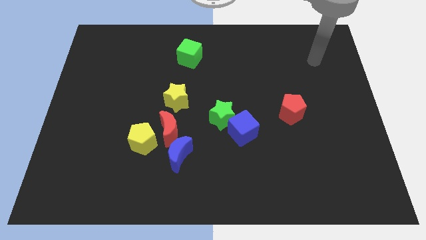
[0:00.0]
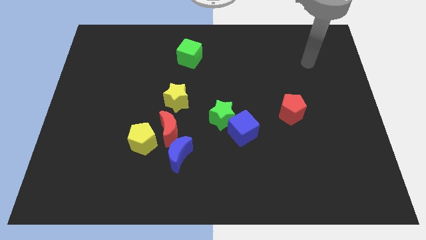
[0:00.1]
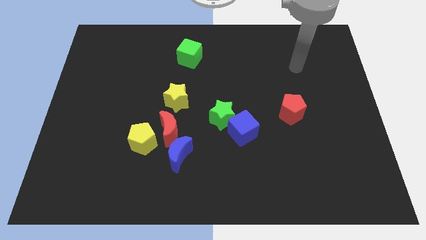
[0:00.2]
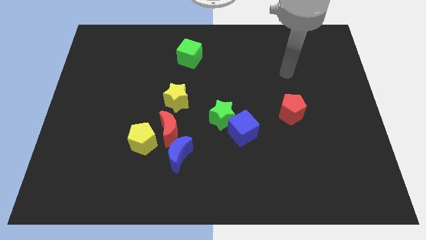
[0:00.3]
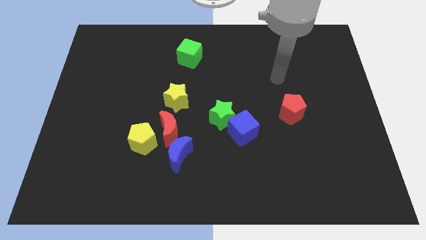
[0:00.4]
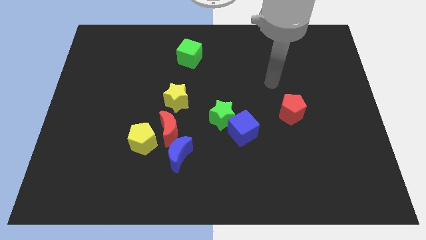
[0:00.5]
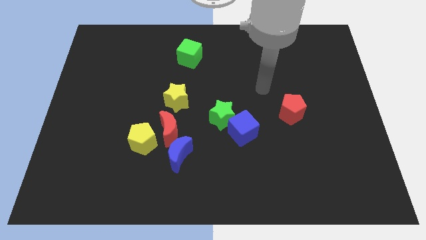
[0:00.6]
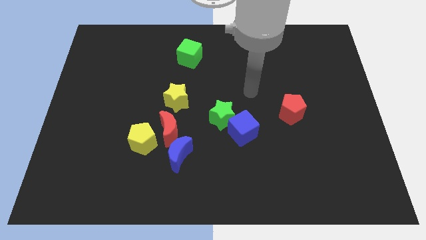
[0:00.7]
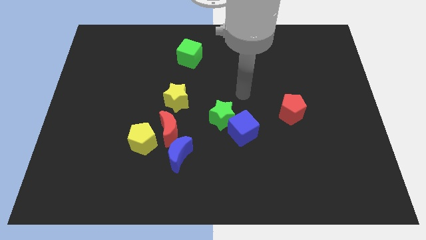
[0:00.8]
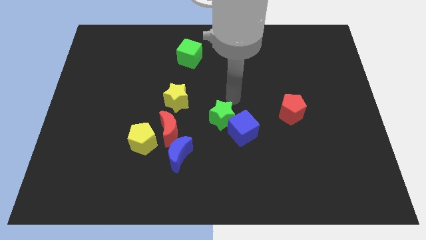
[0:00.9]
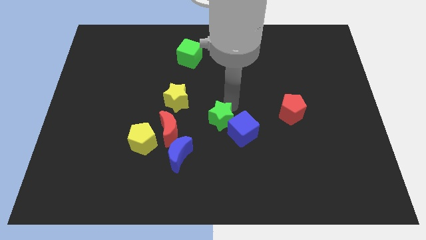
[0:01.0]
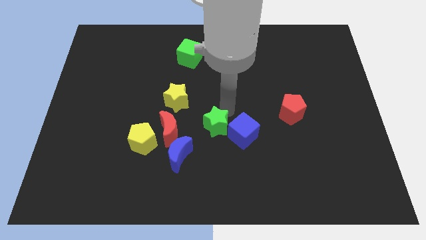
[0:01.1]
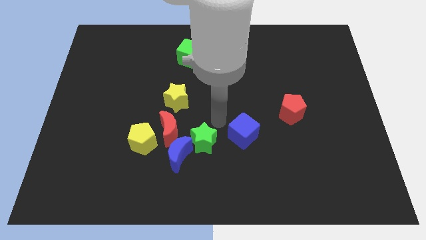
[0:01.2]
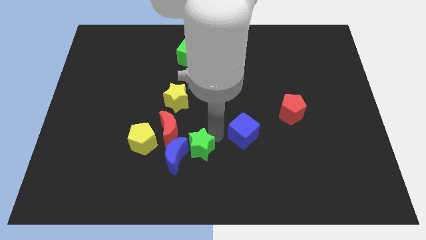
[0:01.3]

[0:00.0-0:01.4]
move the blue cube away from the green star

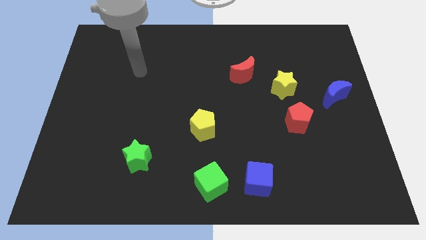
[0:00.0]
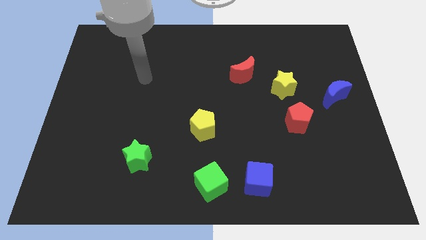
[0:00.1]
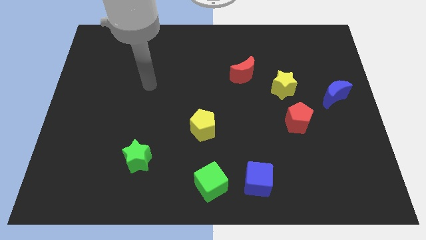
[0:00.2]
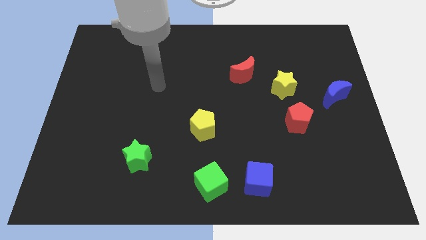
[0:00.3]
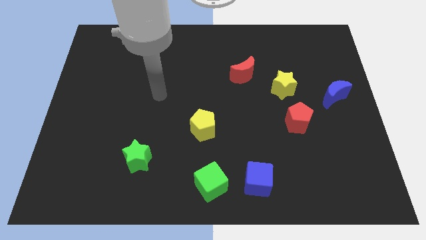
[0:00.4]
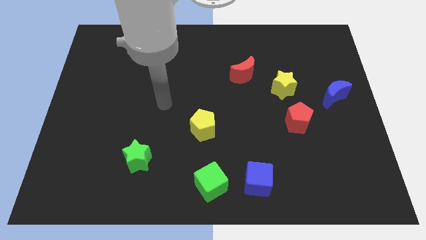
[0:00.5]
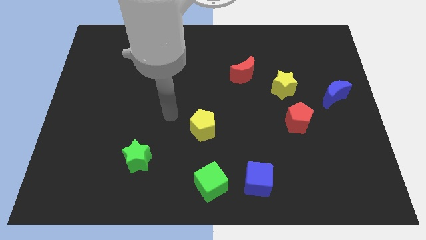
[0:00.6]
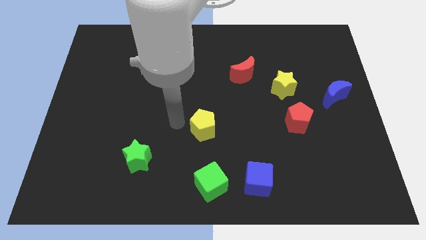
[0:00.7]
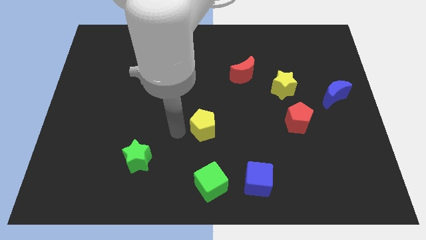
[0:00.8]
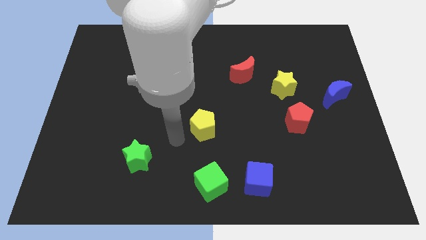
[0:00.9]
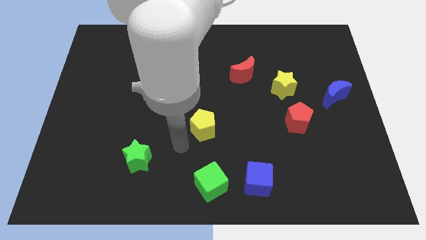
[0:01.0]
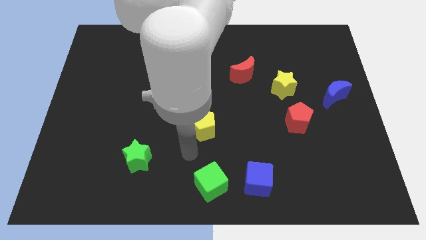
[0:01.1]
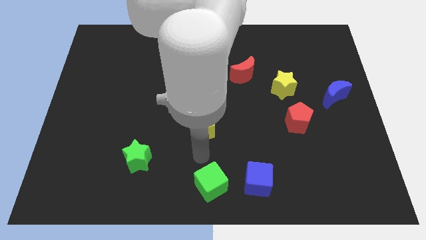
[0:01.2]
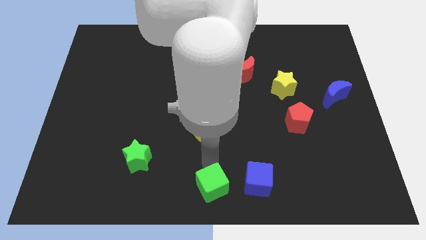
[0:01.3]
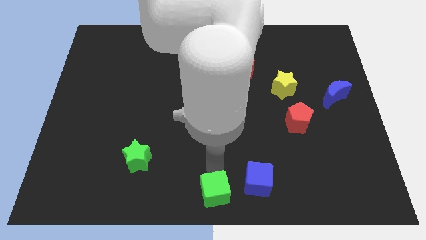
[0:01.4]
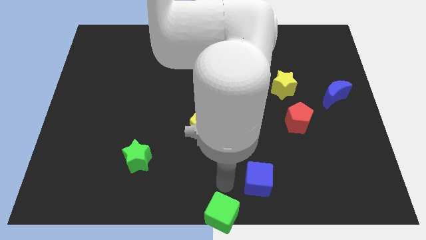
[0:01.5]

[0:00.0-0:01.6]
move the blue cube away from the green cube

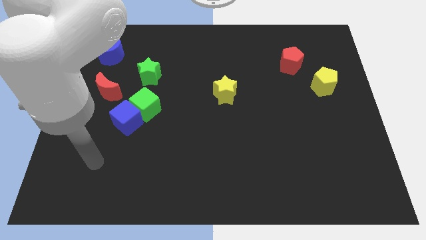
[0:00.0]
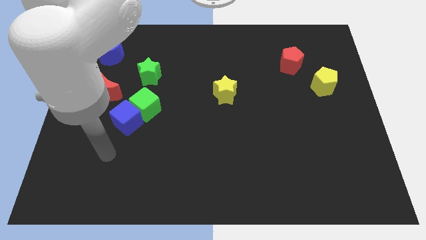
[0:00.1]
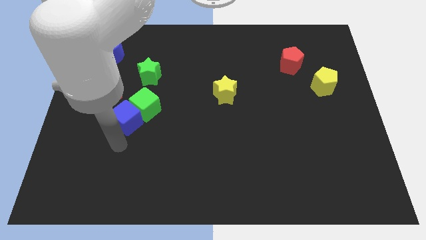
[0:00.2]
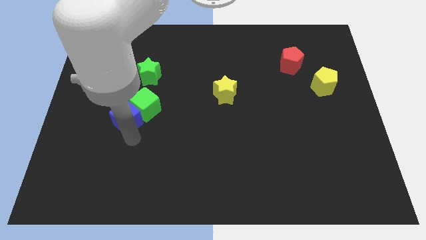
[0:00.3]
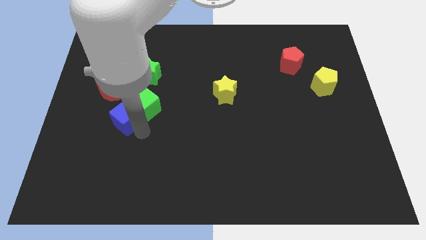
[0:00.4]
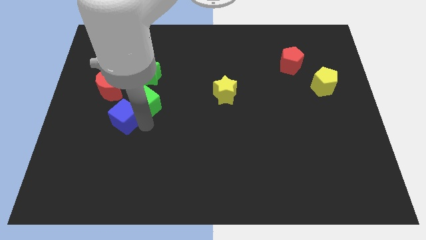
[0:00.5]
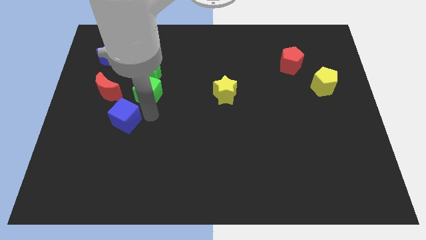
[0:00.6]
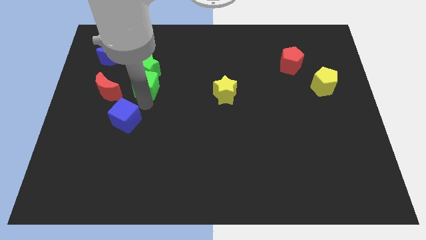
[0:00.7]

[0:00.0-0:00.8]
separate the blue cube from the green cube

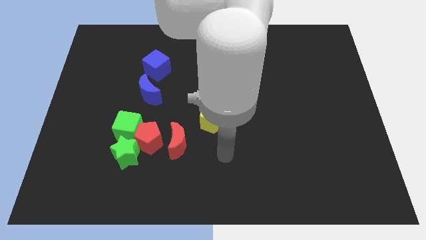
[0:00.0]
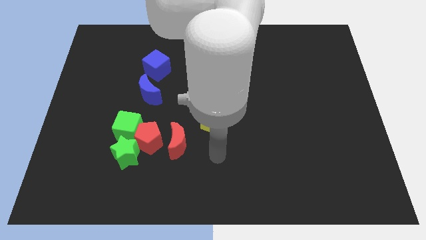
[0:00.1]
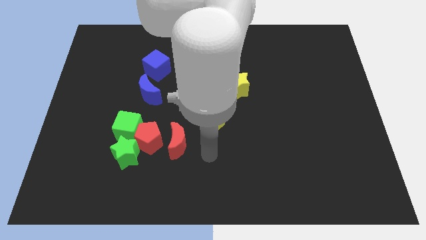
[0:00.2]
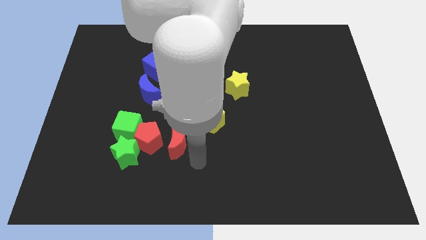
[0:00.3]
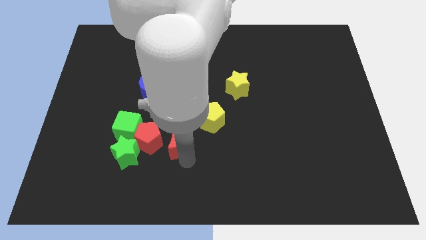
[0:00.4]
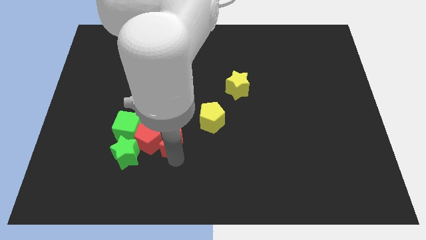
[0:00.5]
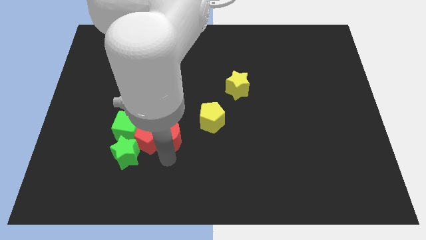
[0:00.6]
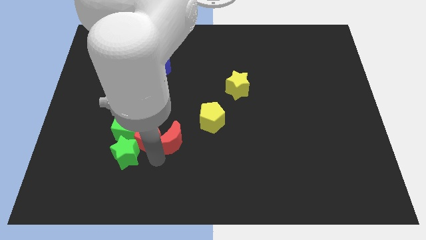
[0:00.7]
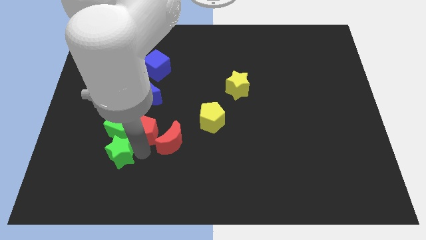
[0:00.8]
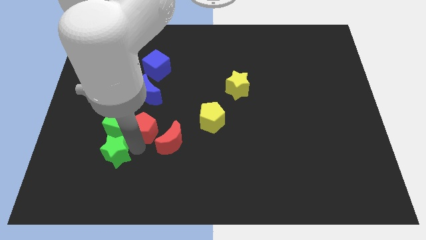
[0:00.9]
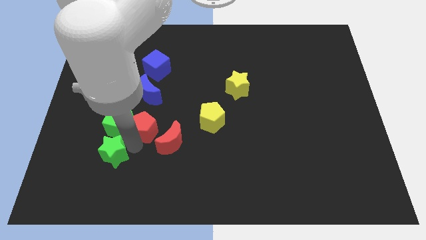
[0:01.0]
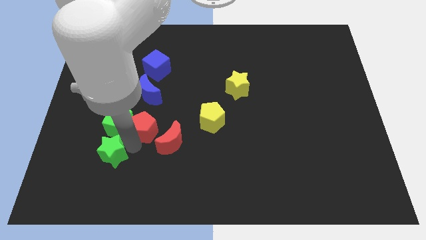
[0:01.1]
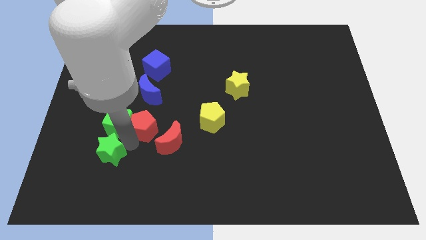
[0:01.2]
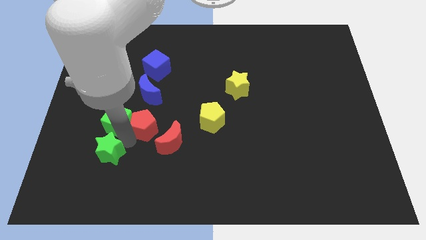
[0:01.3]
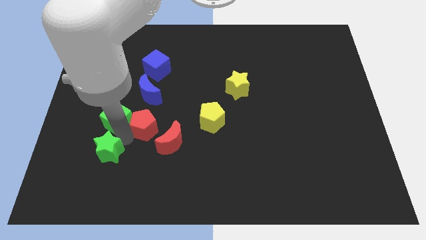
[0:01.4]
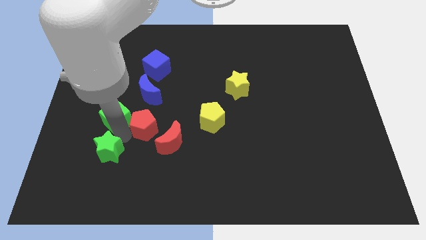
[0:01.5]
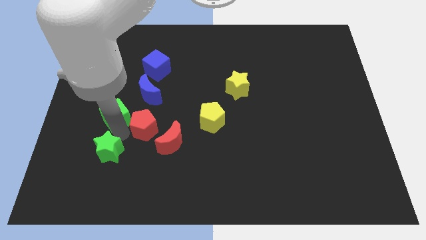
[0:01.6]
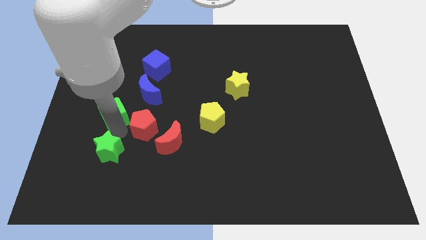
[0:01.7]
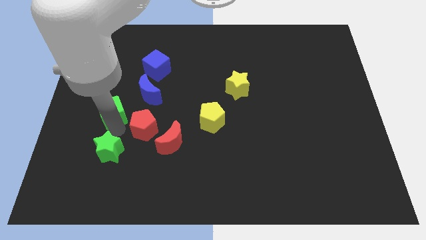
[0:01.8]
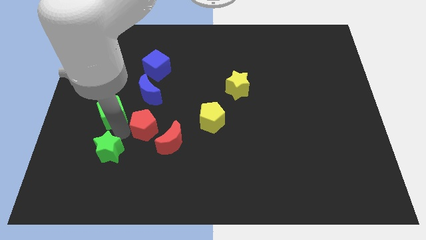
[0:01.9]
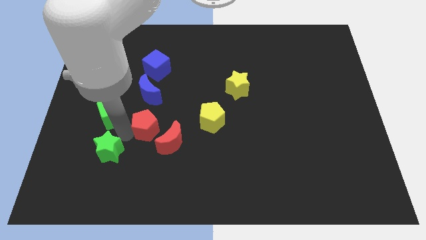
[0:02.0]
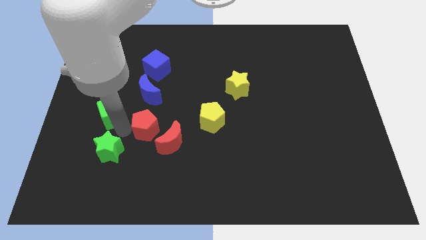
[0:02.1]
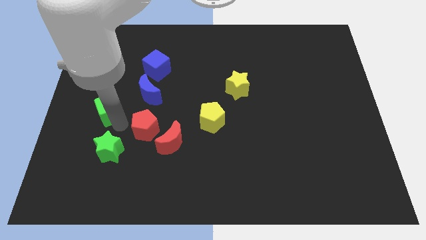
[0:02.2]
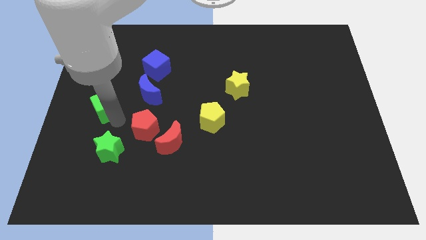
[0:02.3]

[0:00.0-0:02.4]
separate the green cube from the red pentagon and green star

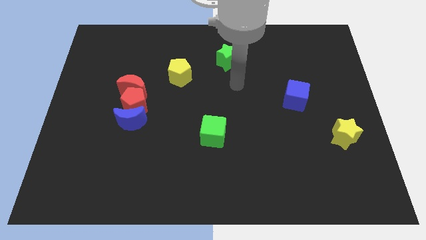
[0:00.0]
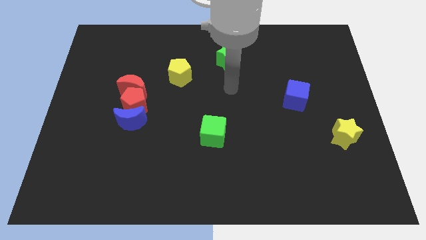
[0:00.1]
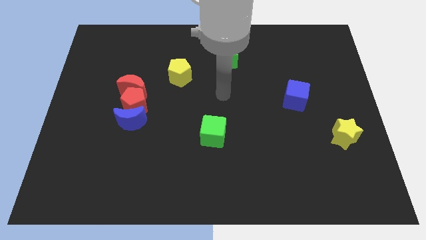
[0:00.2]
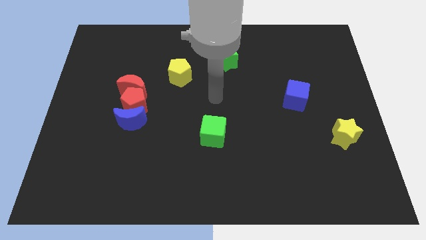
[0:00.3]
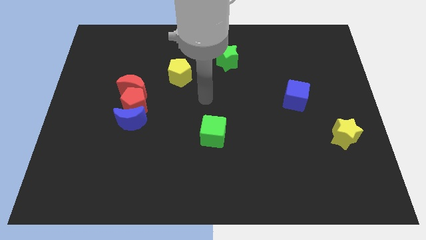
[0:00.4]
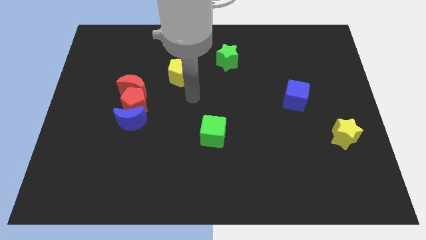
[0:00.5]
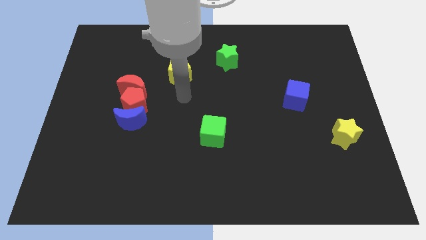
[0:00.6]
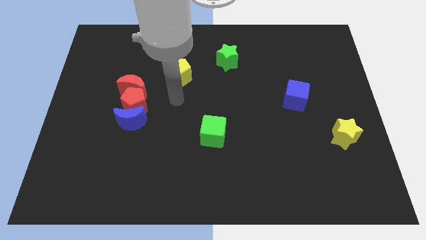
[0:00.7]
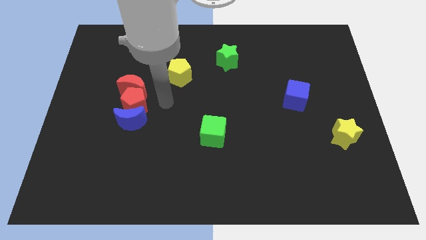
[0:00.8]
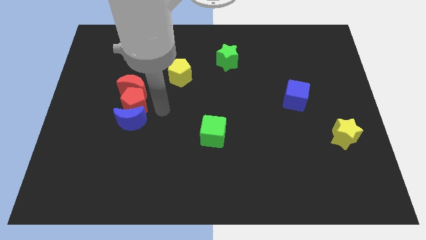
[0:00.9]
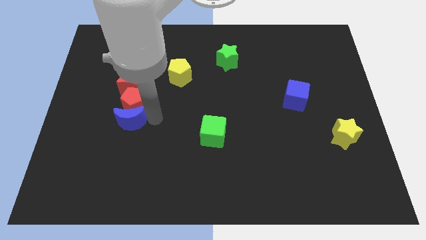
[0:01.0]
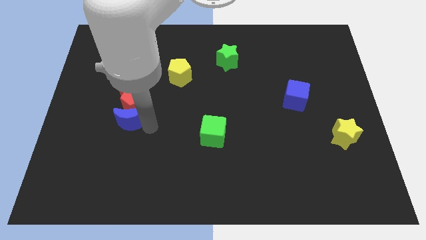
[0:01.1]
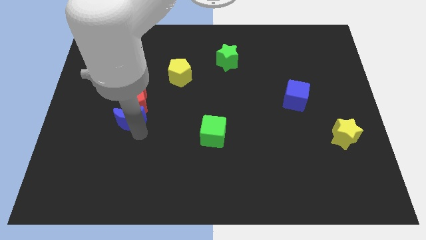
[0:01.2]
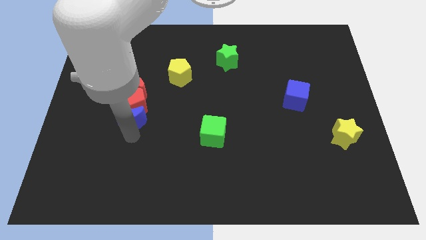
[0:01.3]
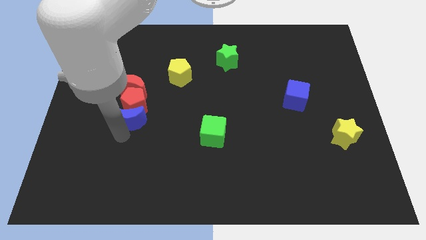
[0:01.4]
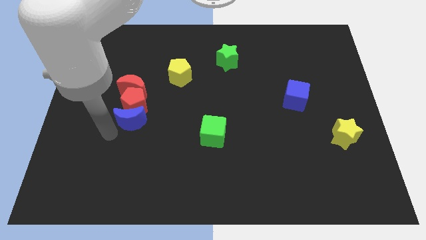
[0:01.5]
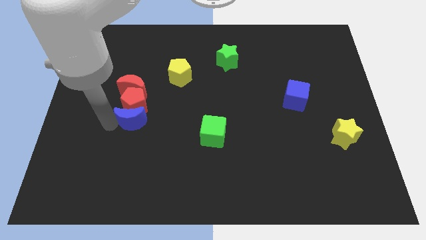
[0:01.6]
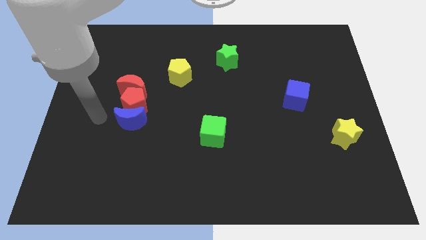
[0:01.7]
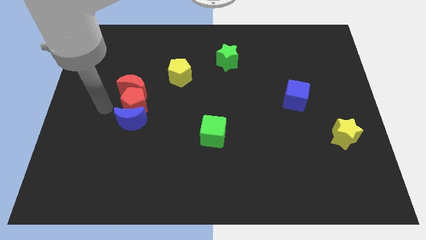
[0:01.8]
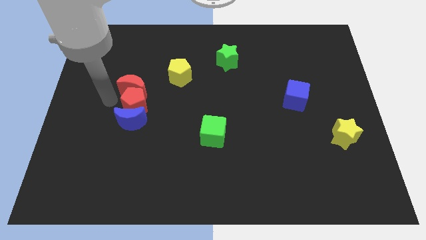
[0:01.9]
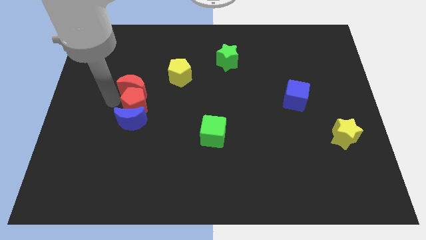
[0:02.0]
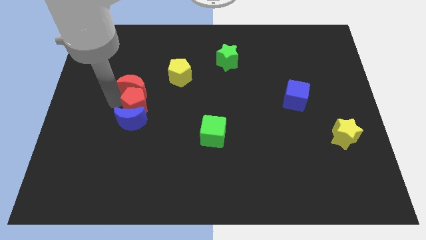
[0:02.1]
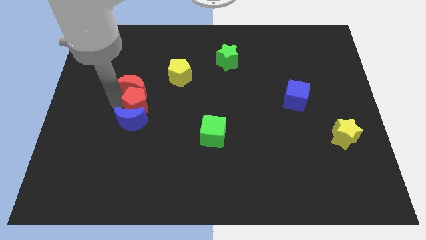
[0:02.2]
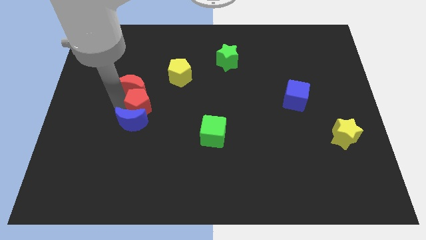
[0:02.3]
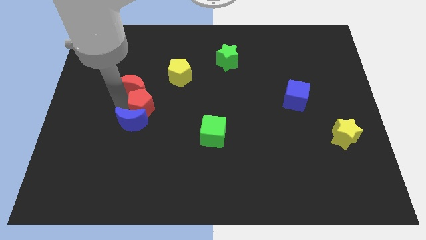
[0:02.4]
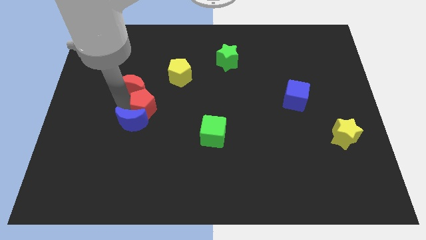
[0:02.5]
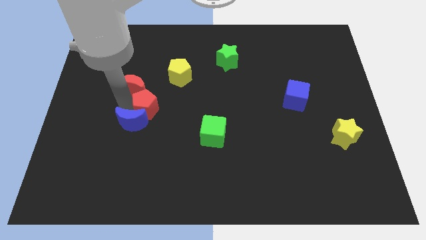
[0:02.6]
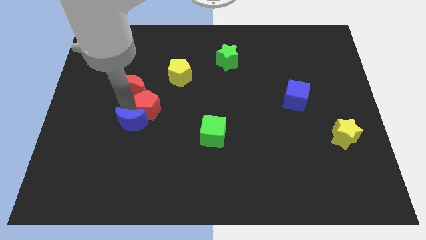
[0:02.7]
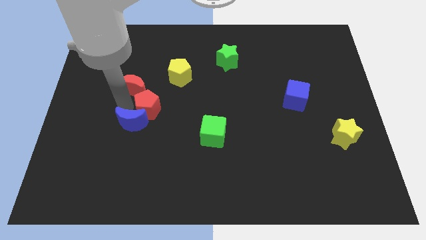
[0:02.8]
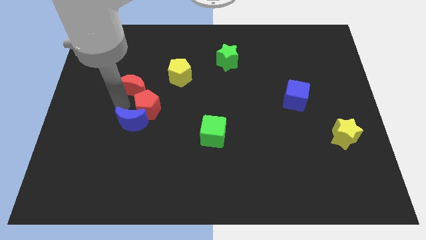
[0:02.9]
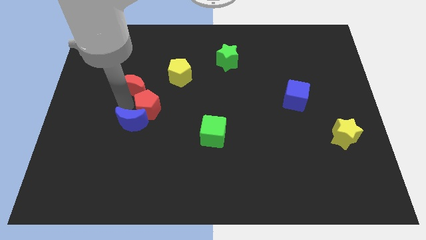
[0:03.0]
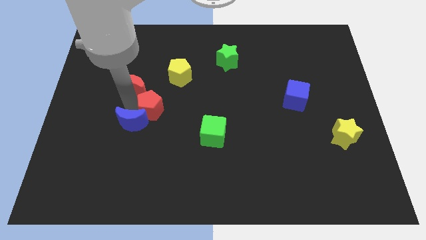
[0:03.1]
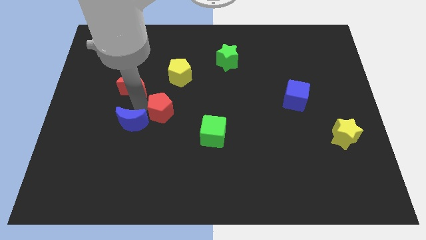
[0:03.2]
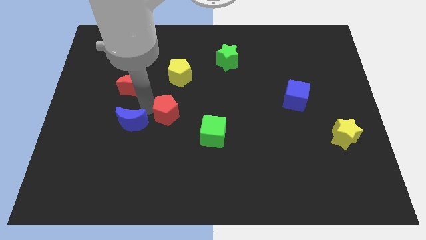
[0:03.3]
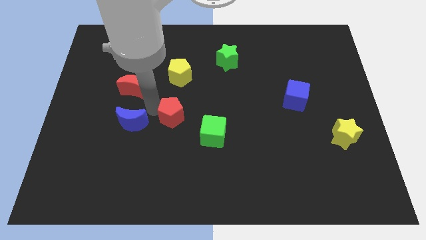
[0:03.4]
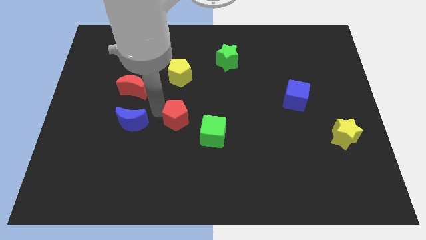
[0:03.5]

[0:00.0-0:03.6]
pull the red pentagon apart from the blue moon and red moon
